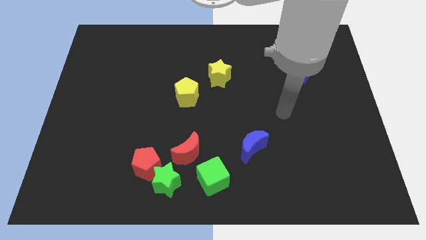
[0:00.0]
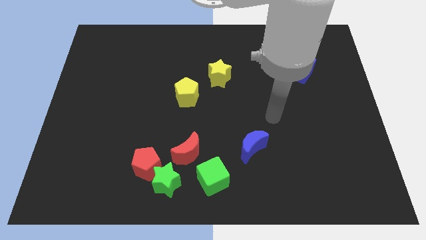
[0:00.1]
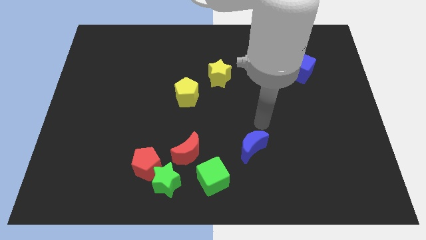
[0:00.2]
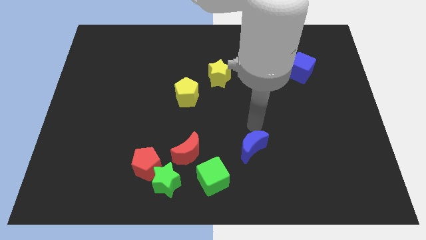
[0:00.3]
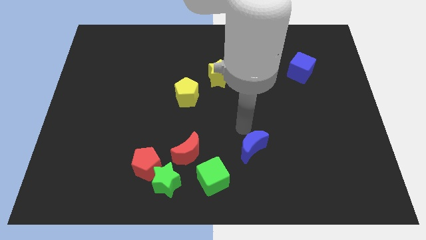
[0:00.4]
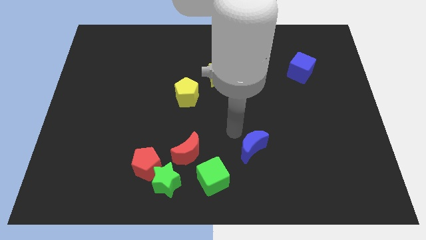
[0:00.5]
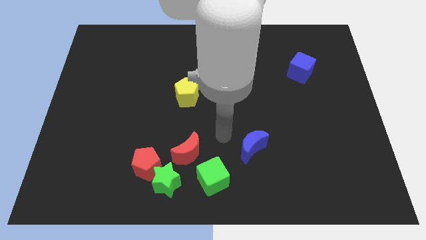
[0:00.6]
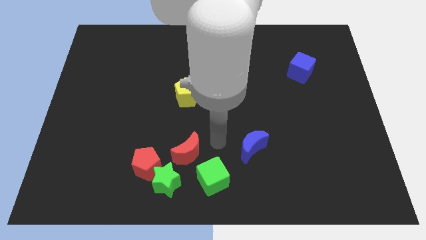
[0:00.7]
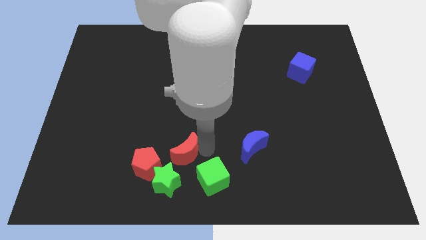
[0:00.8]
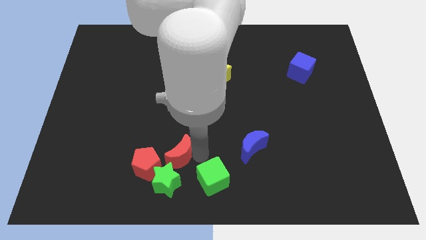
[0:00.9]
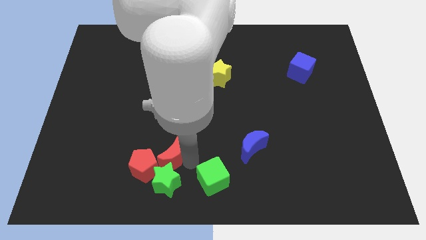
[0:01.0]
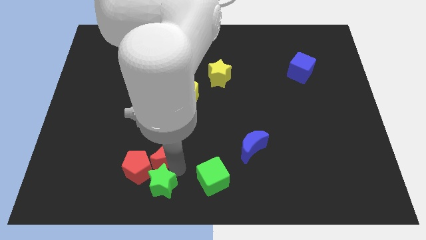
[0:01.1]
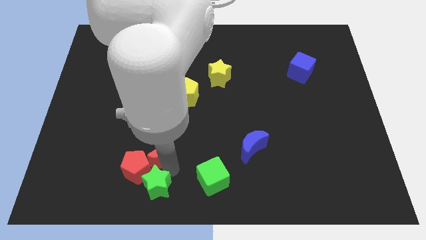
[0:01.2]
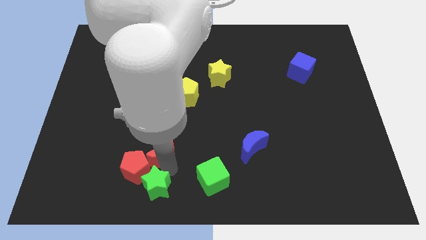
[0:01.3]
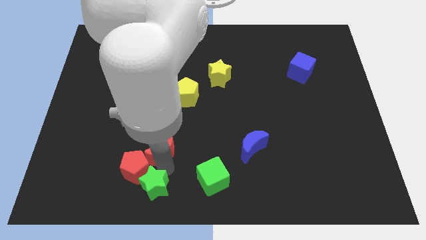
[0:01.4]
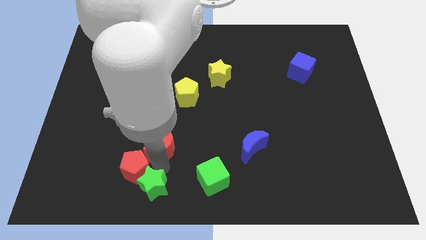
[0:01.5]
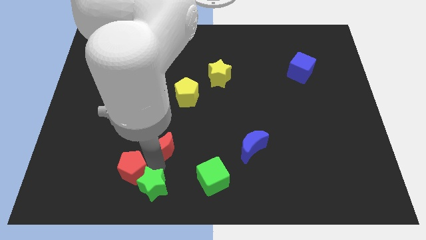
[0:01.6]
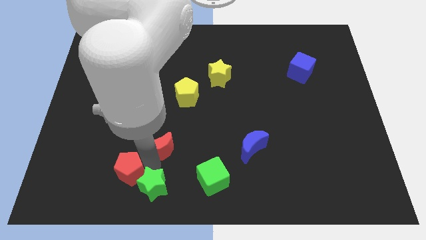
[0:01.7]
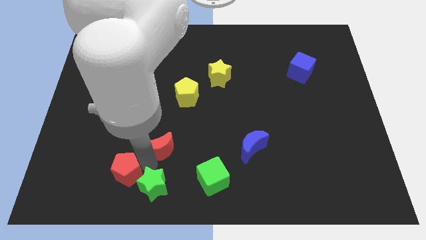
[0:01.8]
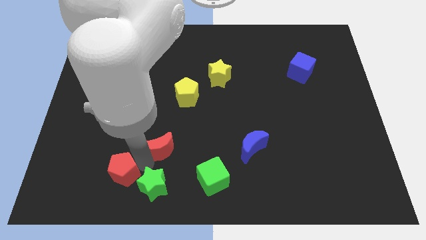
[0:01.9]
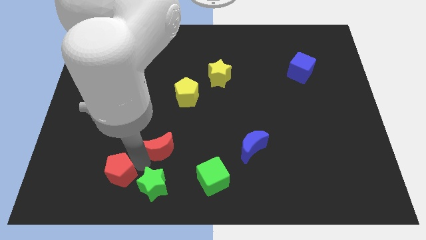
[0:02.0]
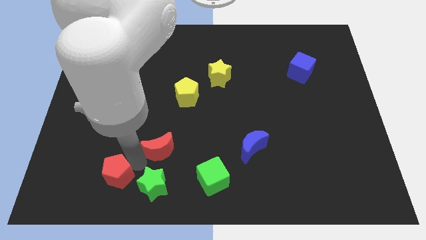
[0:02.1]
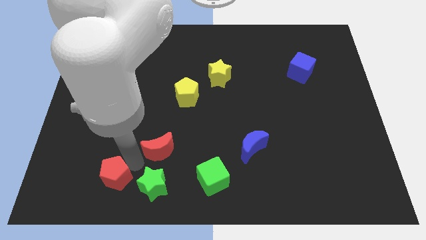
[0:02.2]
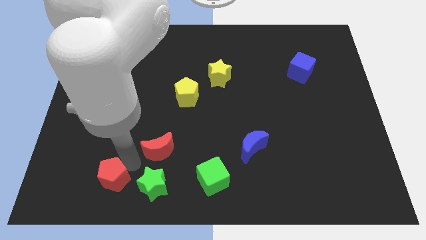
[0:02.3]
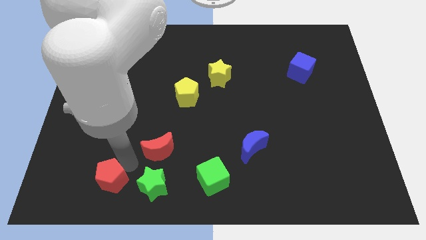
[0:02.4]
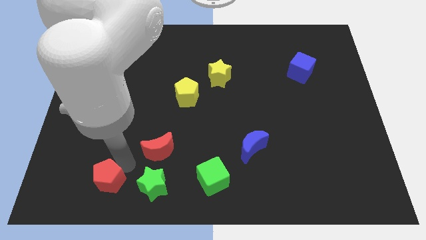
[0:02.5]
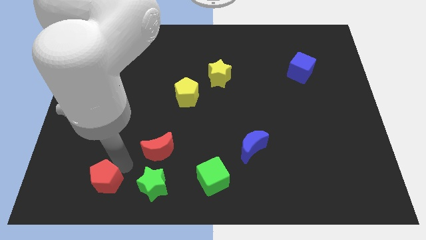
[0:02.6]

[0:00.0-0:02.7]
pull the red pentagon apart from the green star and red moon

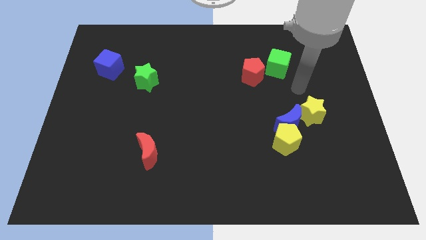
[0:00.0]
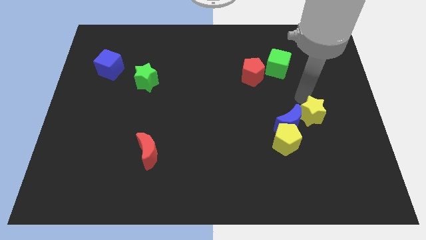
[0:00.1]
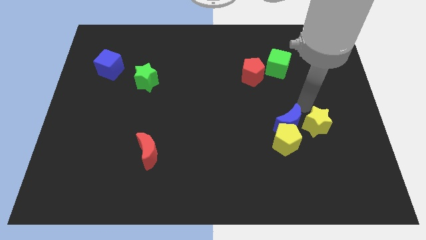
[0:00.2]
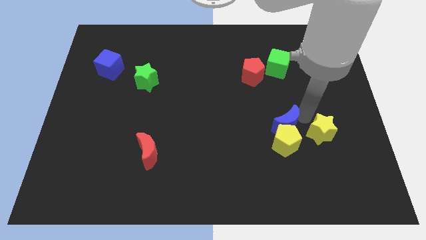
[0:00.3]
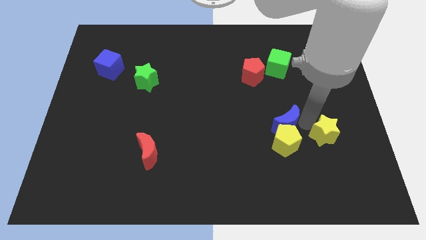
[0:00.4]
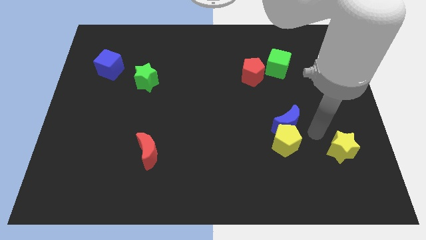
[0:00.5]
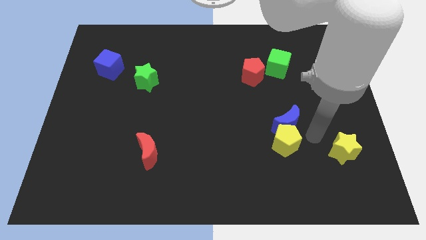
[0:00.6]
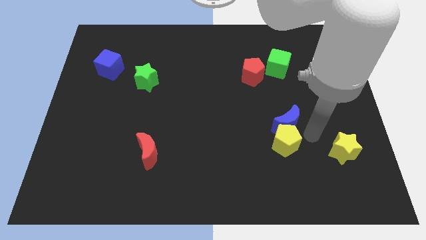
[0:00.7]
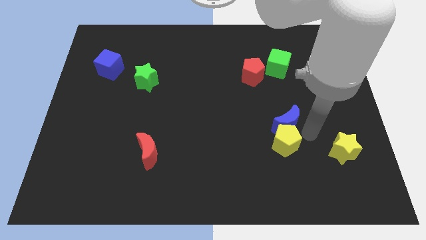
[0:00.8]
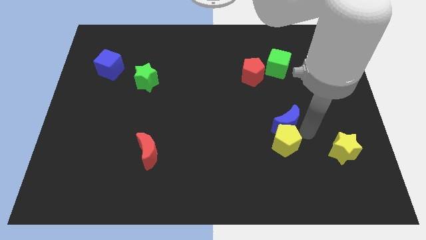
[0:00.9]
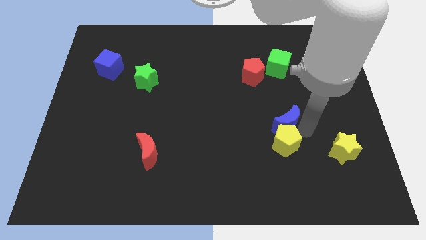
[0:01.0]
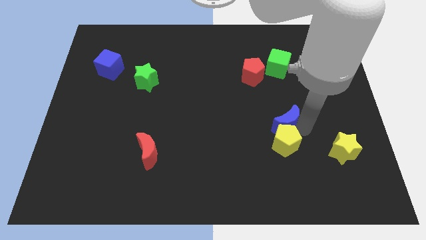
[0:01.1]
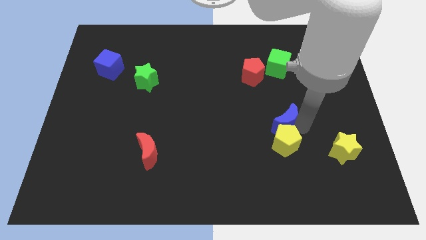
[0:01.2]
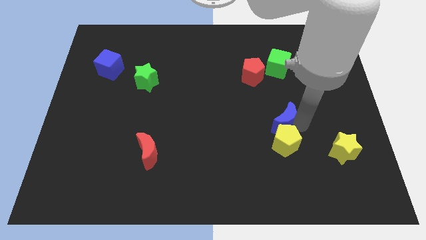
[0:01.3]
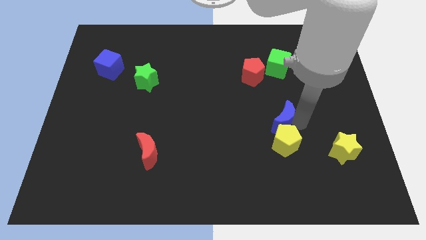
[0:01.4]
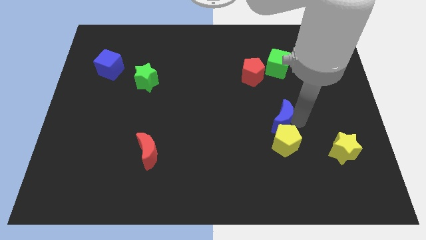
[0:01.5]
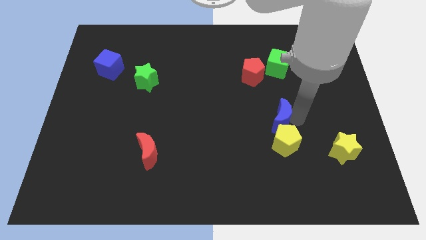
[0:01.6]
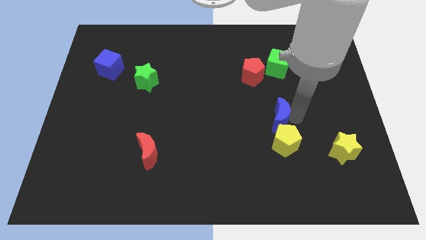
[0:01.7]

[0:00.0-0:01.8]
separate the blue moon from the yellow pentagon and yellow star

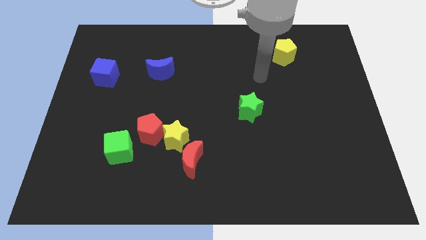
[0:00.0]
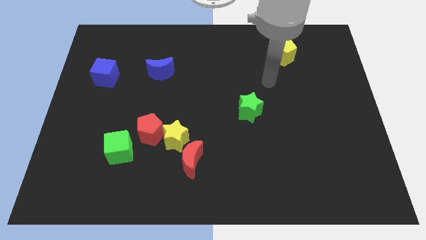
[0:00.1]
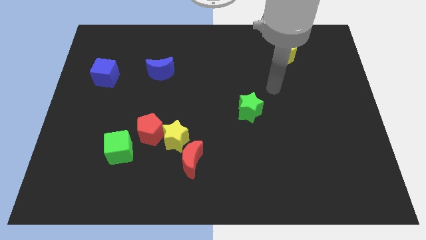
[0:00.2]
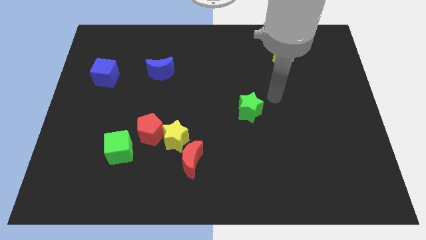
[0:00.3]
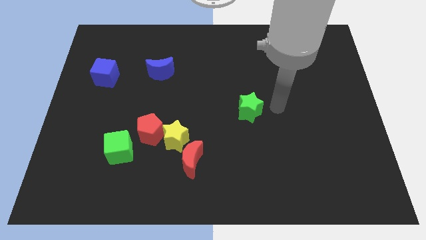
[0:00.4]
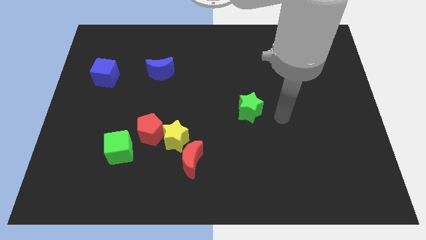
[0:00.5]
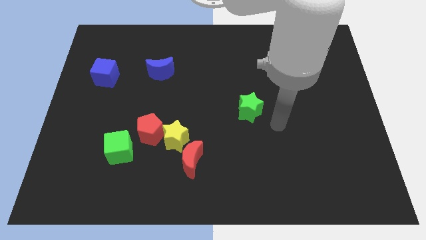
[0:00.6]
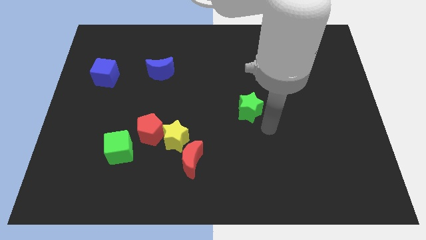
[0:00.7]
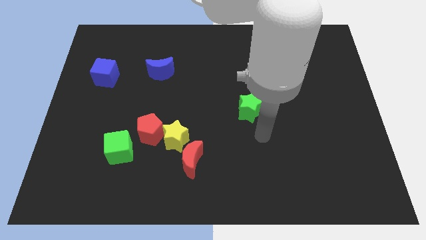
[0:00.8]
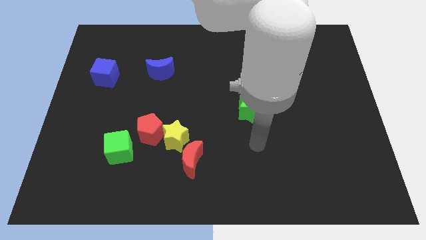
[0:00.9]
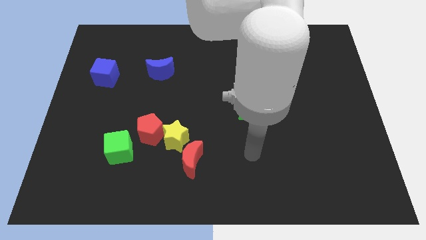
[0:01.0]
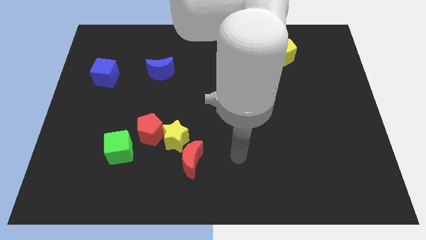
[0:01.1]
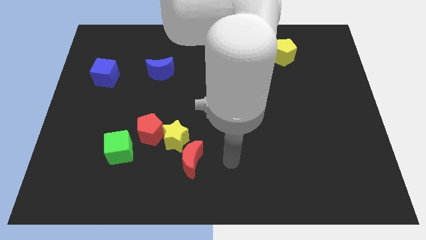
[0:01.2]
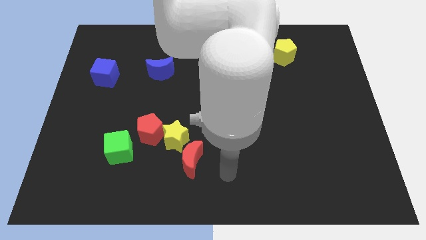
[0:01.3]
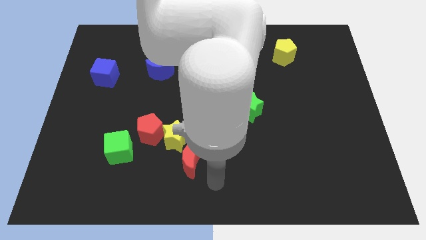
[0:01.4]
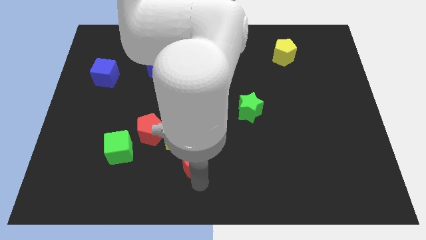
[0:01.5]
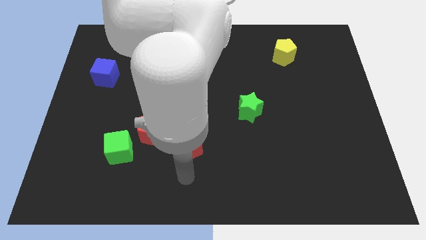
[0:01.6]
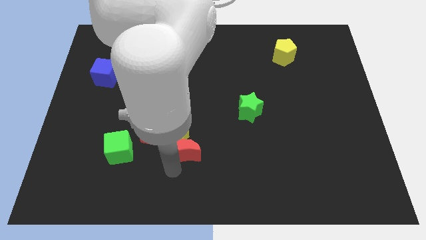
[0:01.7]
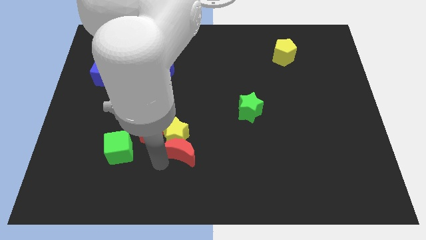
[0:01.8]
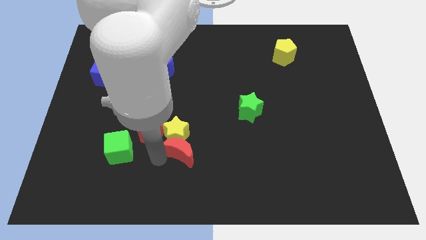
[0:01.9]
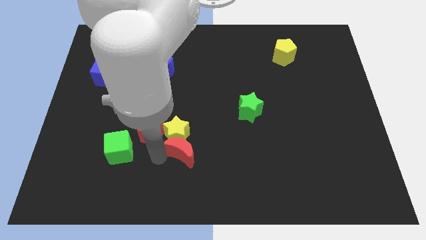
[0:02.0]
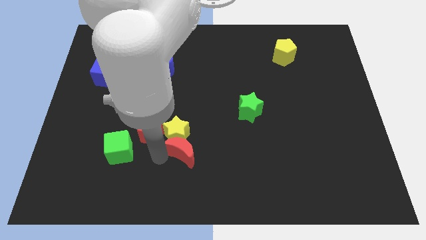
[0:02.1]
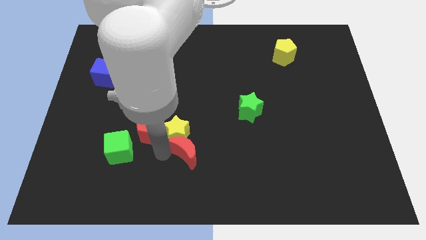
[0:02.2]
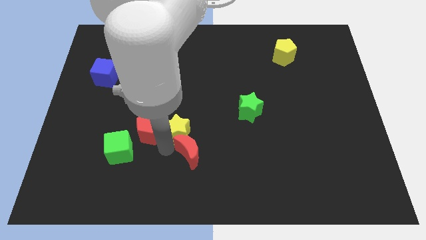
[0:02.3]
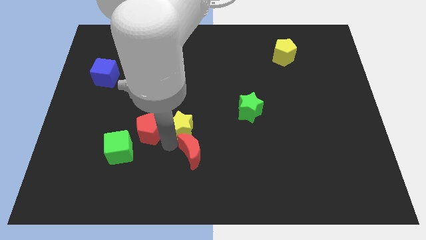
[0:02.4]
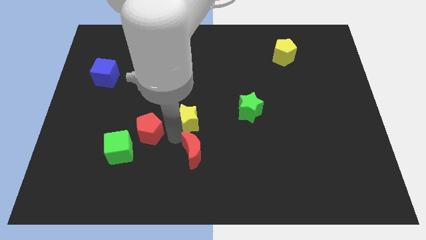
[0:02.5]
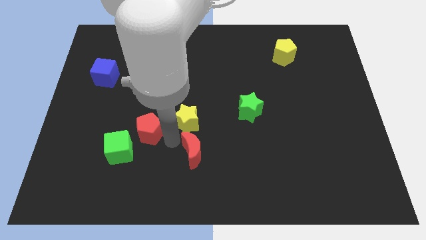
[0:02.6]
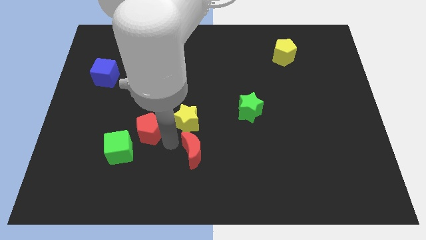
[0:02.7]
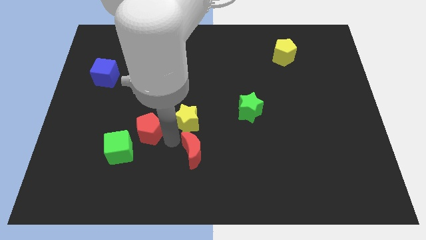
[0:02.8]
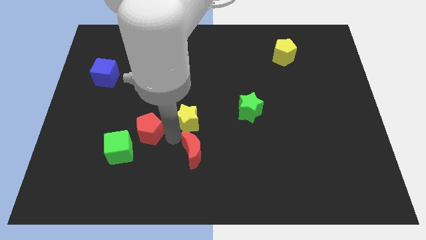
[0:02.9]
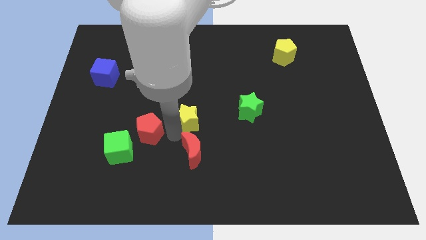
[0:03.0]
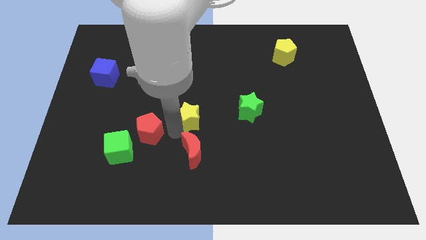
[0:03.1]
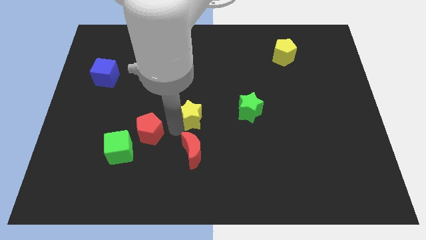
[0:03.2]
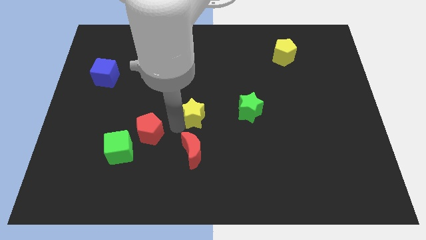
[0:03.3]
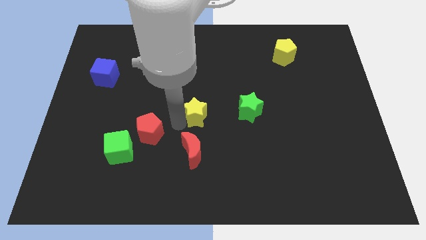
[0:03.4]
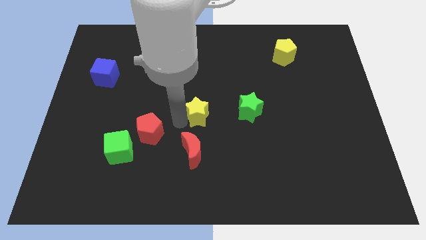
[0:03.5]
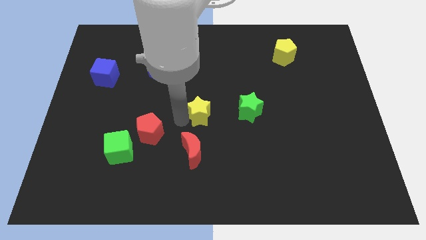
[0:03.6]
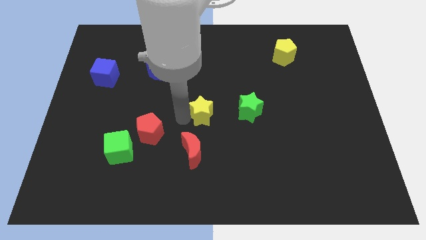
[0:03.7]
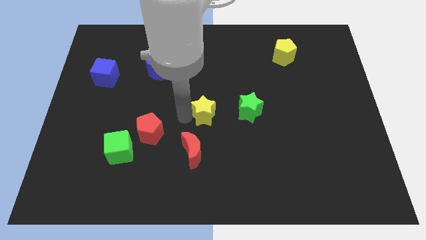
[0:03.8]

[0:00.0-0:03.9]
pull the yellow star apart from the red pentagon and red moon

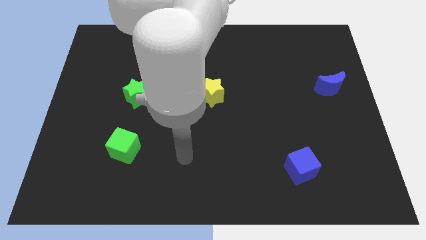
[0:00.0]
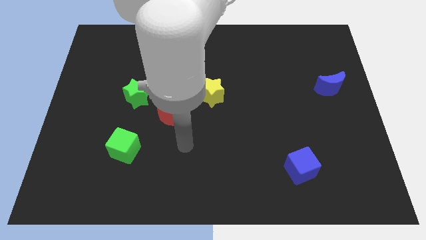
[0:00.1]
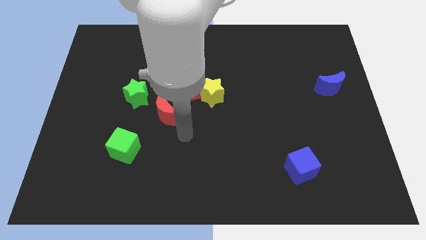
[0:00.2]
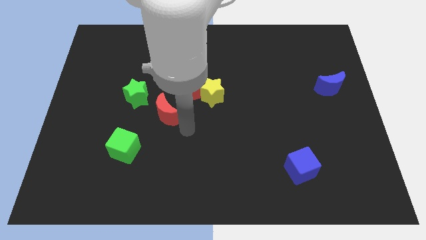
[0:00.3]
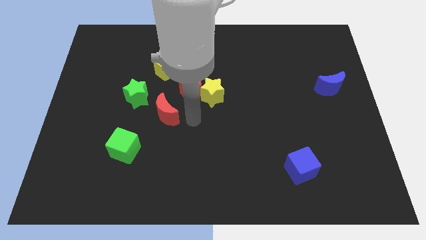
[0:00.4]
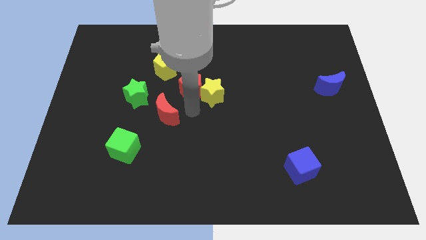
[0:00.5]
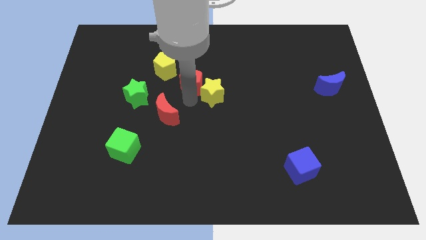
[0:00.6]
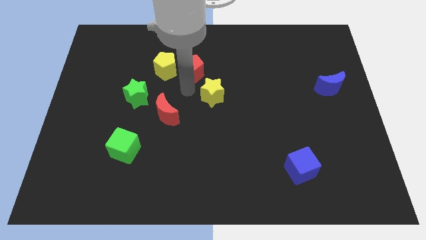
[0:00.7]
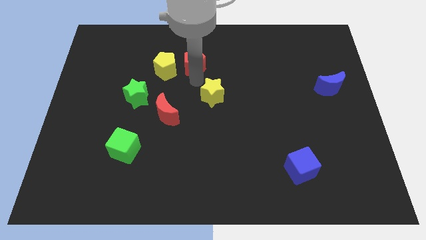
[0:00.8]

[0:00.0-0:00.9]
move the yellow star away from the red pentagon
